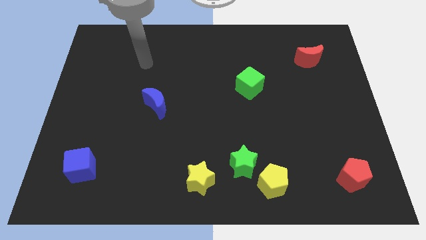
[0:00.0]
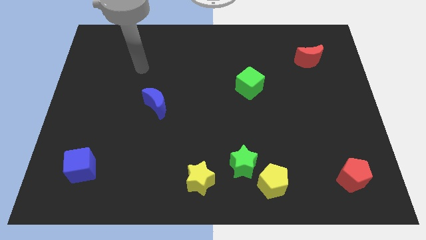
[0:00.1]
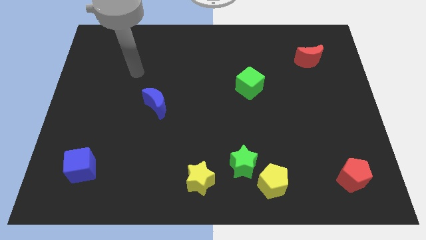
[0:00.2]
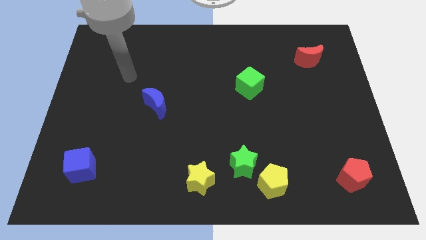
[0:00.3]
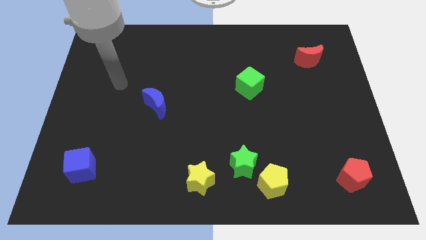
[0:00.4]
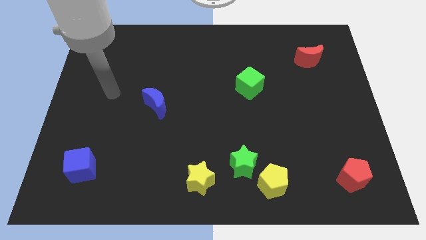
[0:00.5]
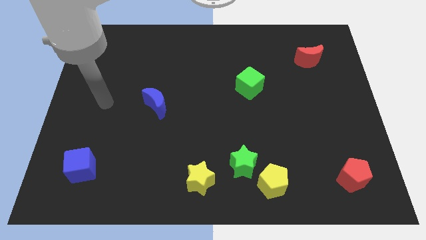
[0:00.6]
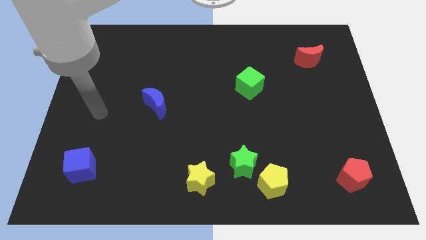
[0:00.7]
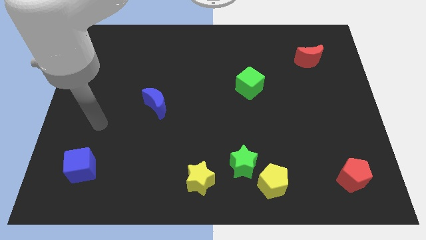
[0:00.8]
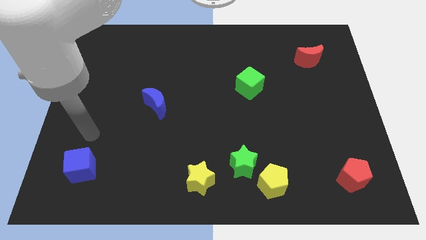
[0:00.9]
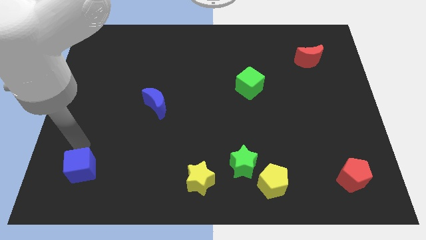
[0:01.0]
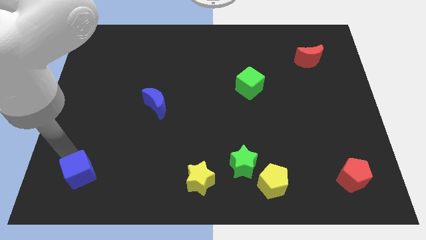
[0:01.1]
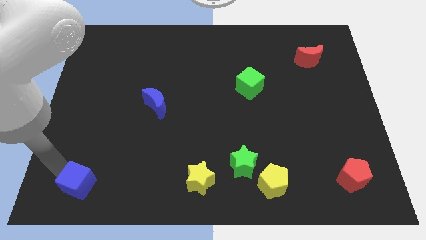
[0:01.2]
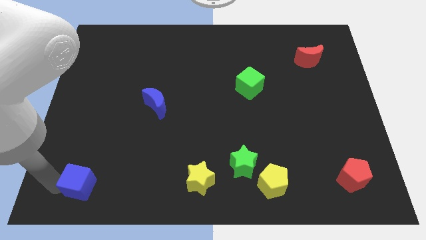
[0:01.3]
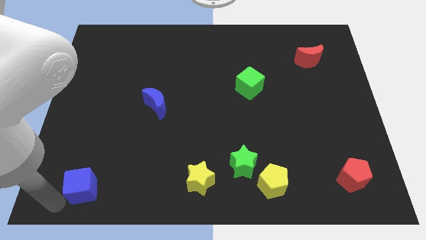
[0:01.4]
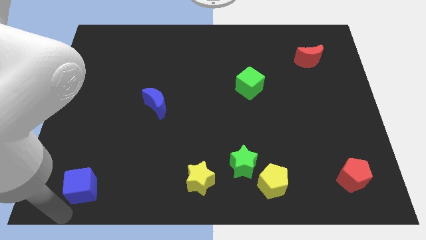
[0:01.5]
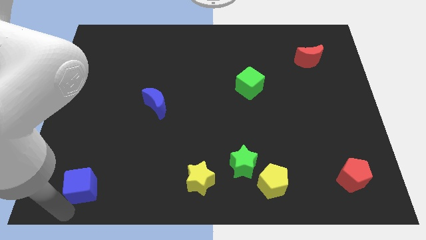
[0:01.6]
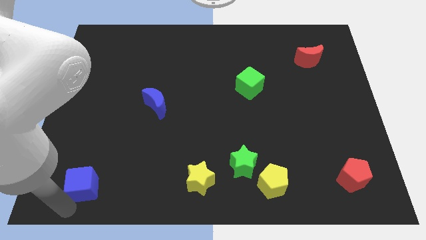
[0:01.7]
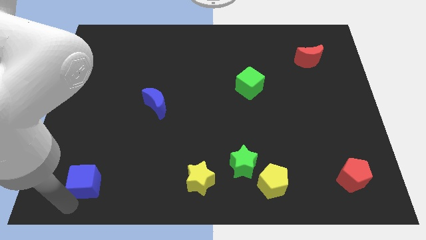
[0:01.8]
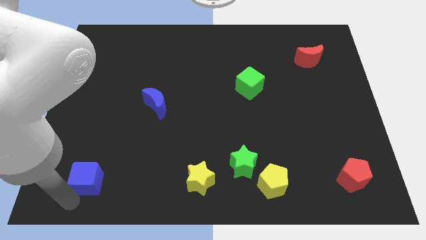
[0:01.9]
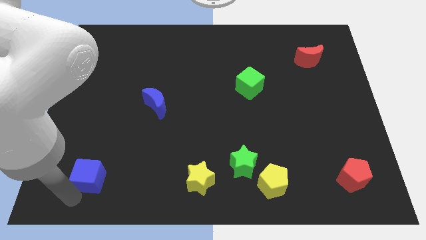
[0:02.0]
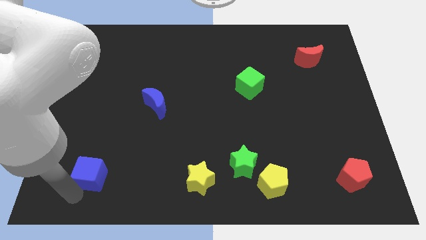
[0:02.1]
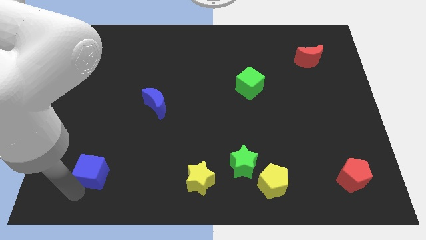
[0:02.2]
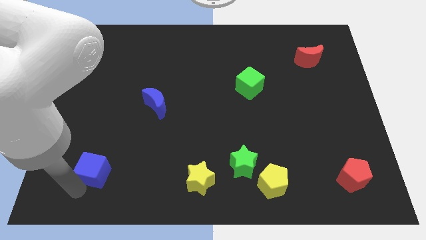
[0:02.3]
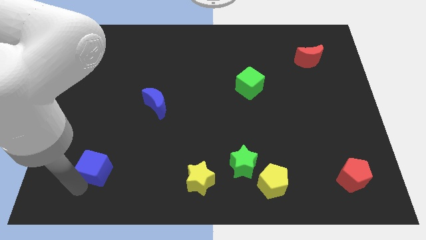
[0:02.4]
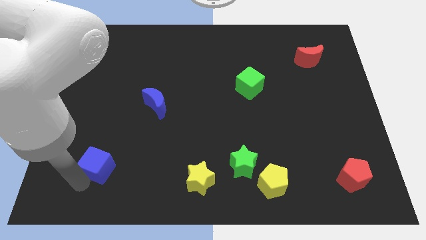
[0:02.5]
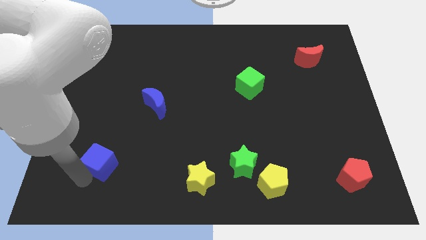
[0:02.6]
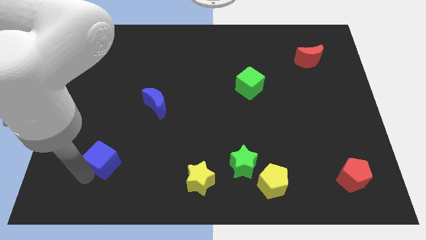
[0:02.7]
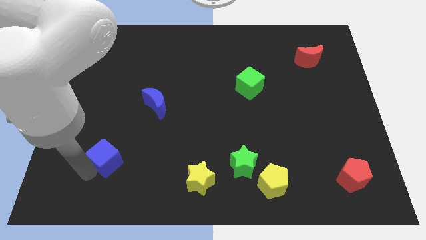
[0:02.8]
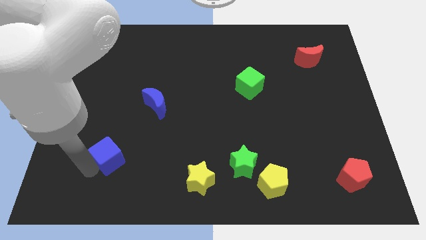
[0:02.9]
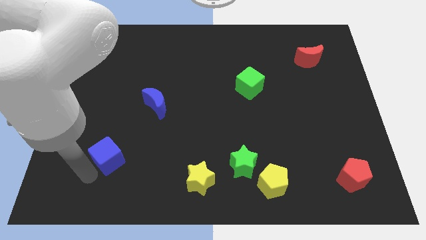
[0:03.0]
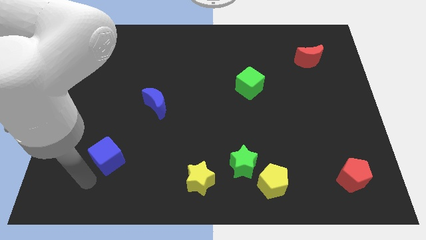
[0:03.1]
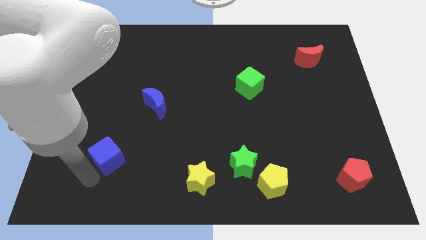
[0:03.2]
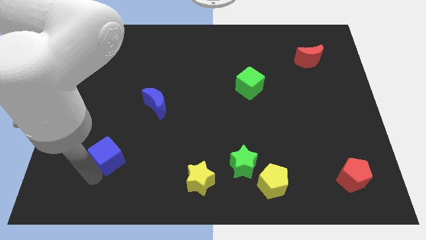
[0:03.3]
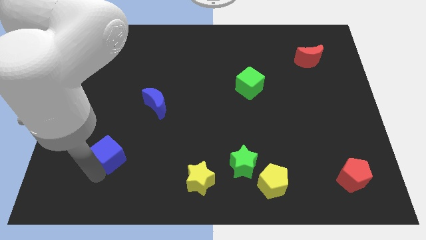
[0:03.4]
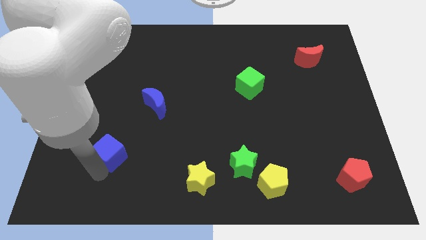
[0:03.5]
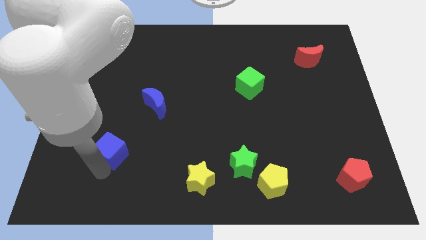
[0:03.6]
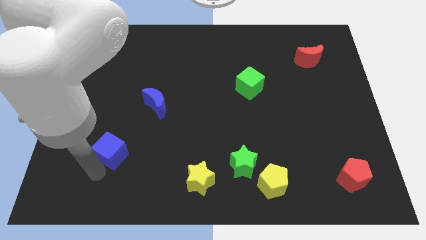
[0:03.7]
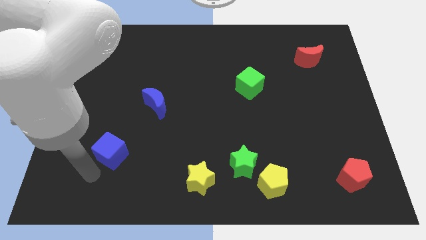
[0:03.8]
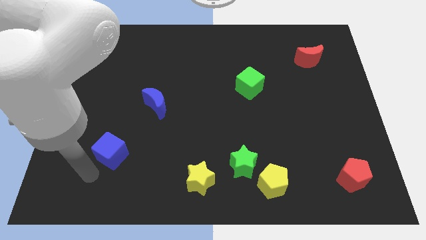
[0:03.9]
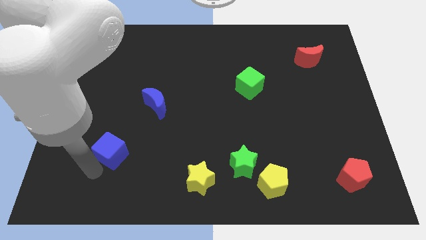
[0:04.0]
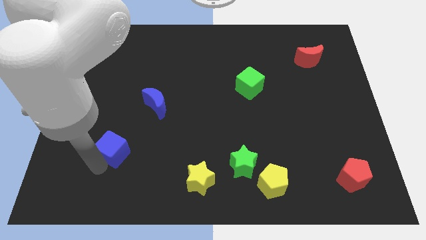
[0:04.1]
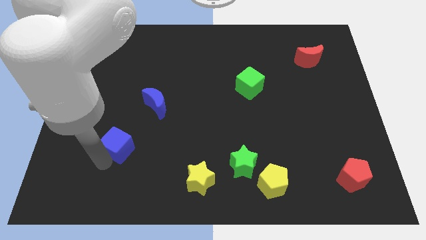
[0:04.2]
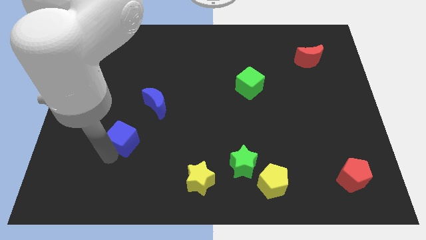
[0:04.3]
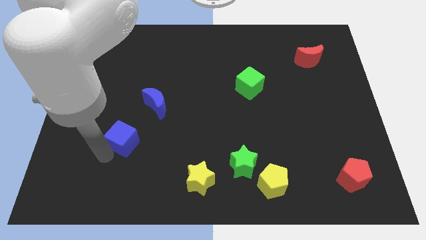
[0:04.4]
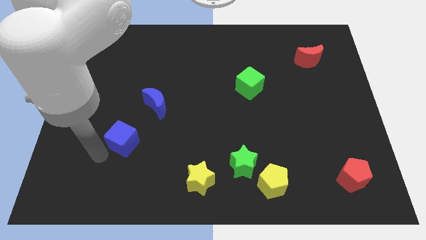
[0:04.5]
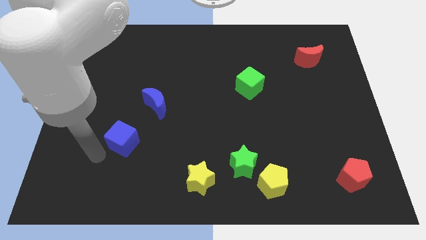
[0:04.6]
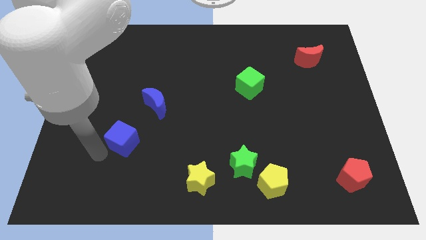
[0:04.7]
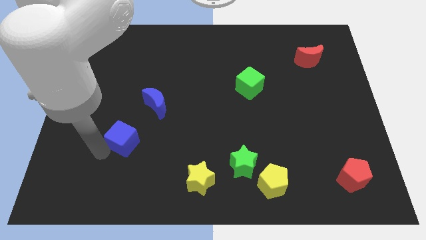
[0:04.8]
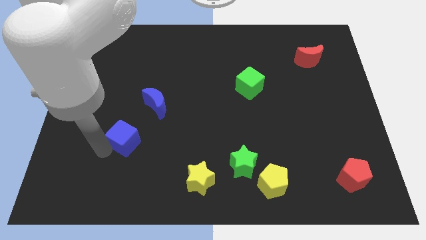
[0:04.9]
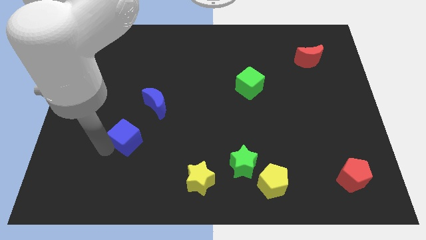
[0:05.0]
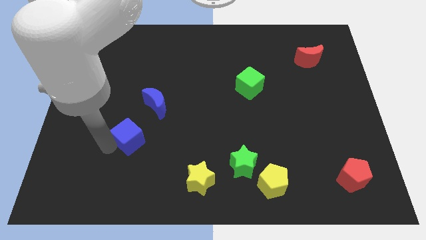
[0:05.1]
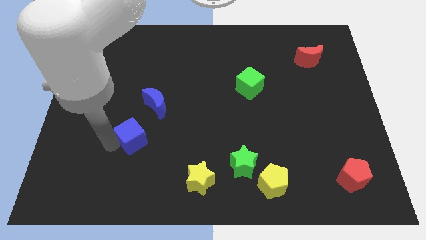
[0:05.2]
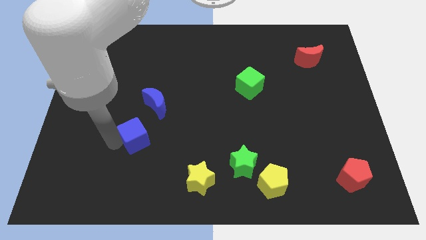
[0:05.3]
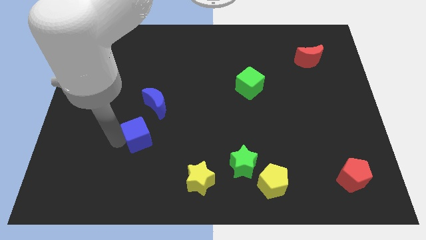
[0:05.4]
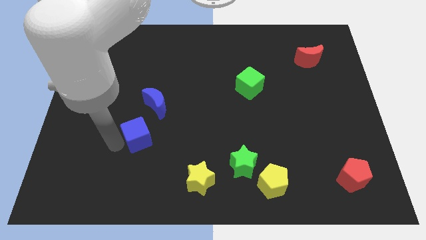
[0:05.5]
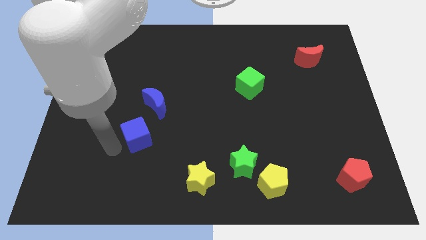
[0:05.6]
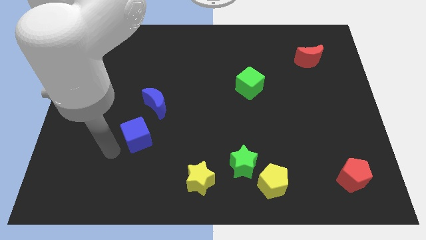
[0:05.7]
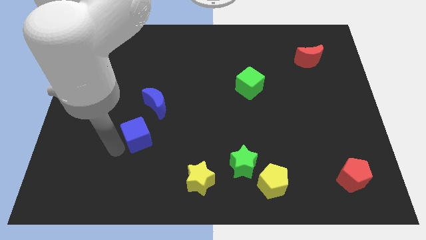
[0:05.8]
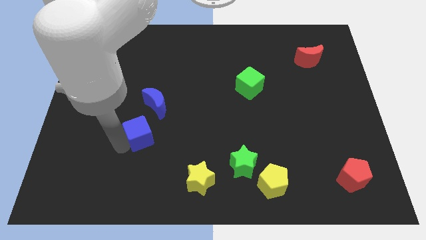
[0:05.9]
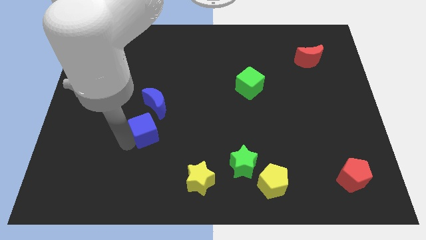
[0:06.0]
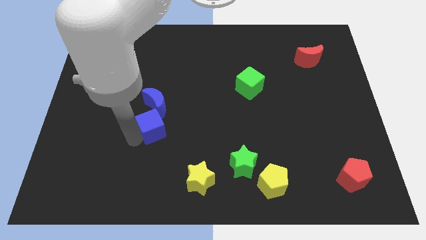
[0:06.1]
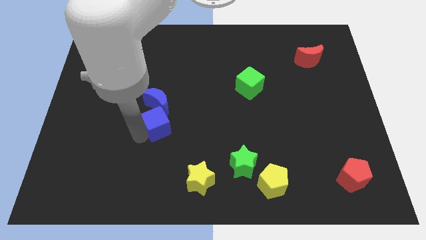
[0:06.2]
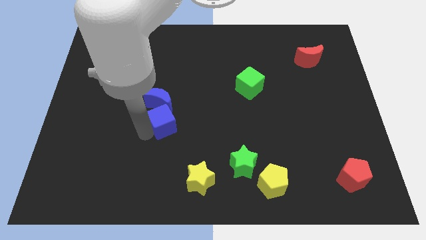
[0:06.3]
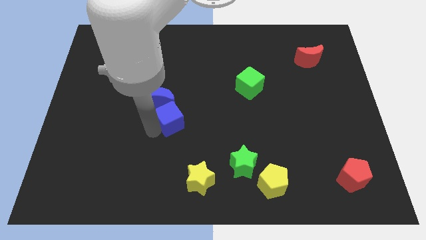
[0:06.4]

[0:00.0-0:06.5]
move the blue cube upwards and then to the right

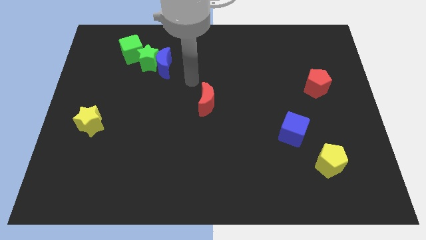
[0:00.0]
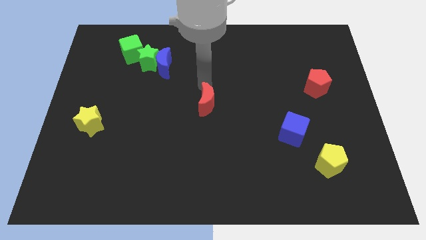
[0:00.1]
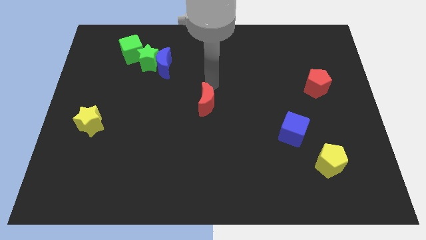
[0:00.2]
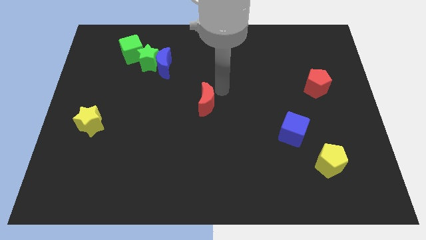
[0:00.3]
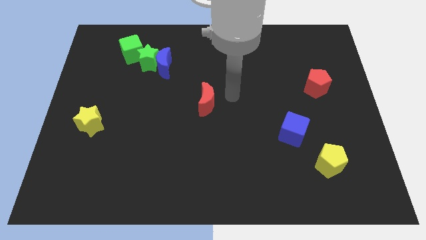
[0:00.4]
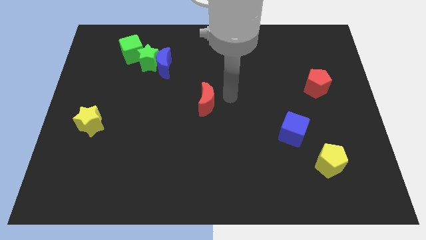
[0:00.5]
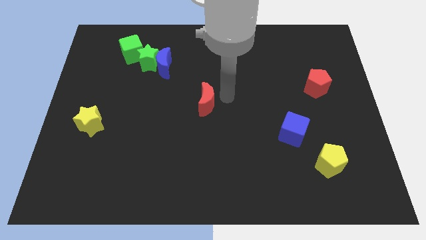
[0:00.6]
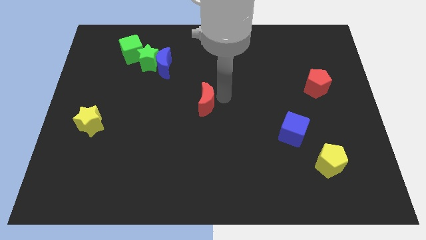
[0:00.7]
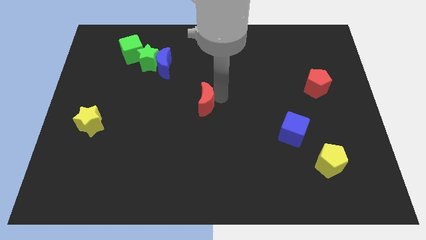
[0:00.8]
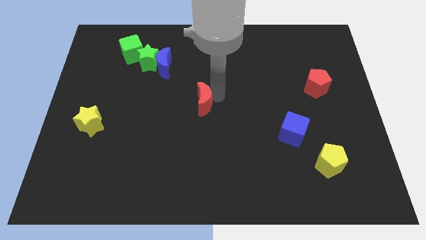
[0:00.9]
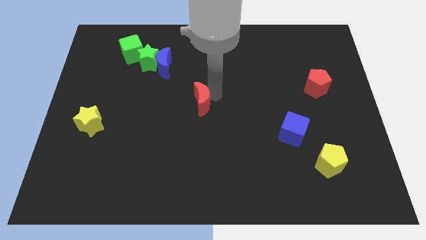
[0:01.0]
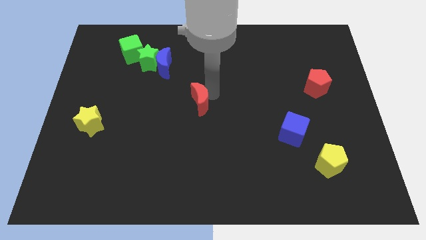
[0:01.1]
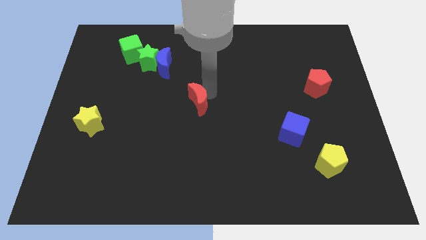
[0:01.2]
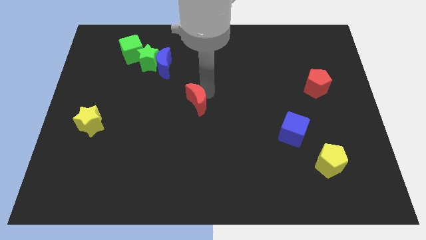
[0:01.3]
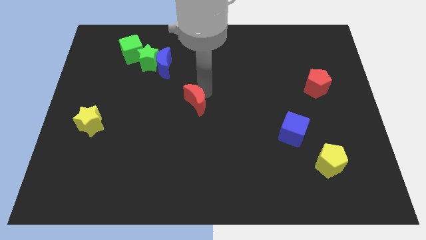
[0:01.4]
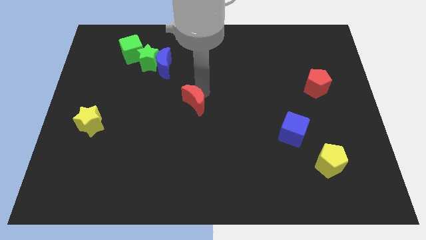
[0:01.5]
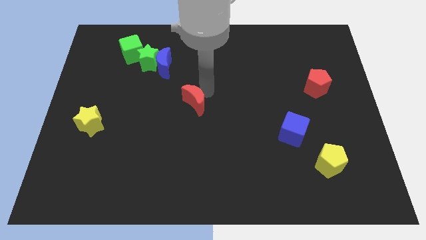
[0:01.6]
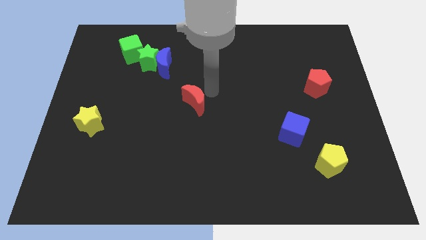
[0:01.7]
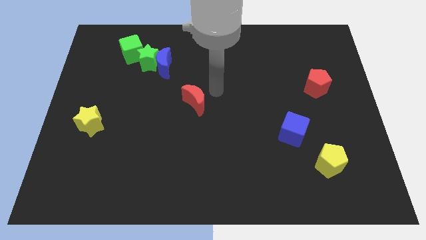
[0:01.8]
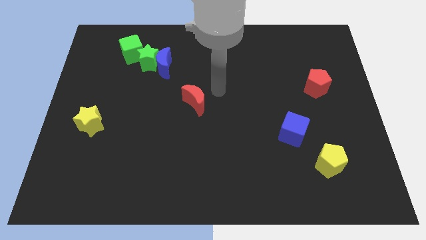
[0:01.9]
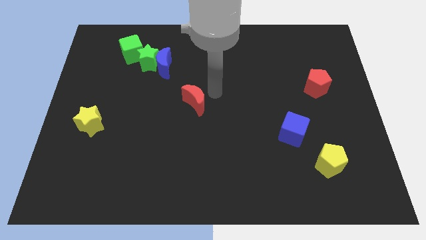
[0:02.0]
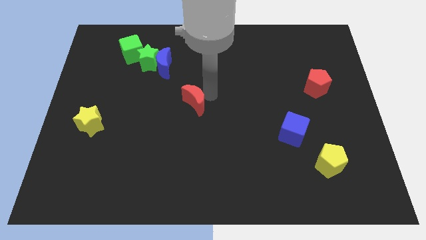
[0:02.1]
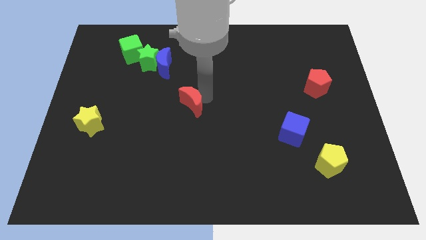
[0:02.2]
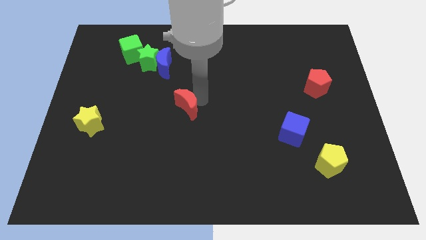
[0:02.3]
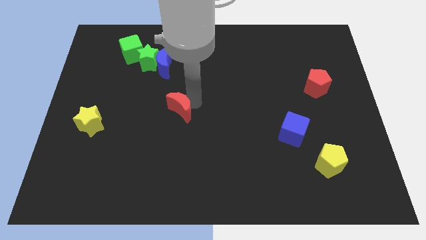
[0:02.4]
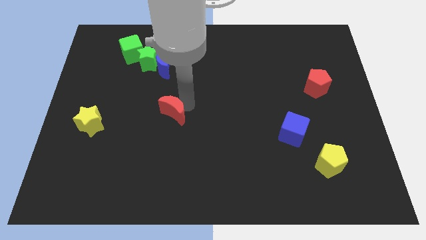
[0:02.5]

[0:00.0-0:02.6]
slightly push the red moon down and to the left diagonally
